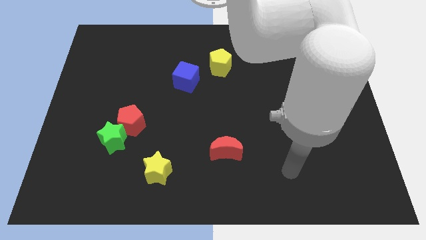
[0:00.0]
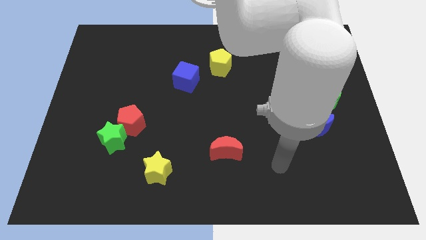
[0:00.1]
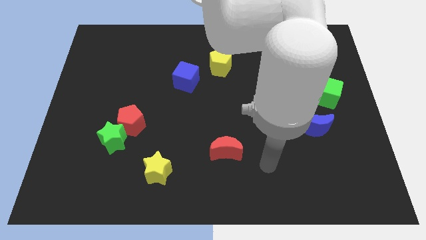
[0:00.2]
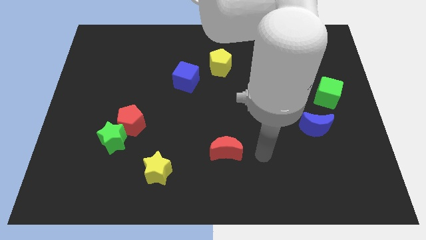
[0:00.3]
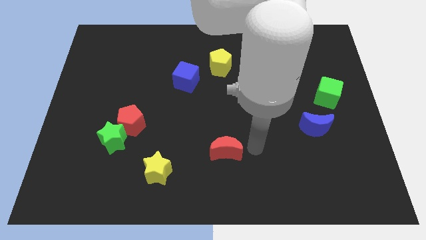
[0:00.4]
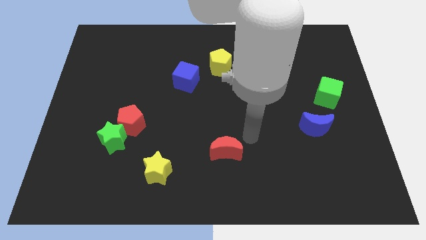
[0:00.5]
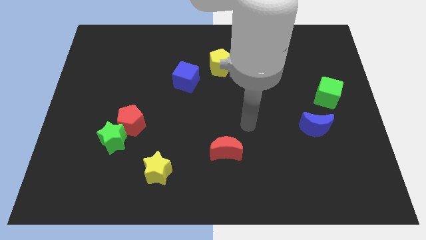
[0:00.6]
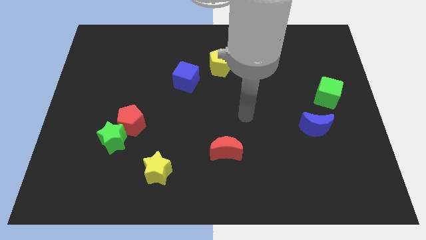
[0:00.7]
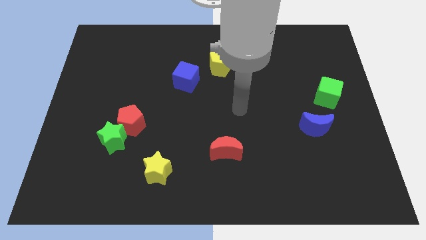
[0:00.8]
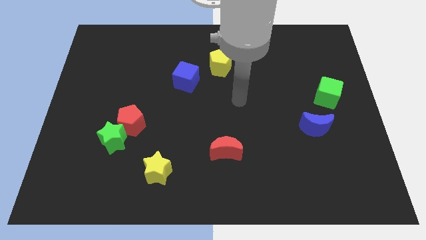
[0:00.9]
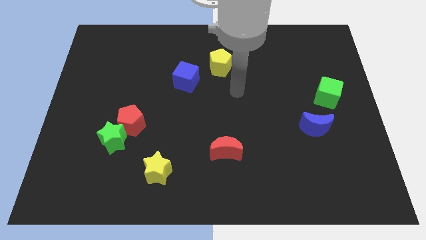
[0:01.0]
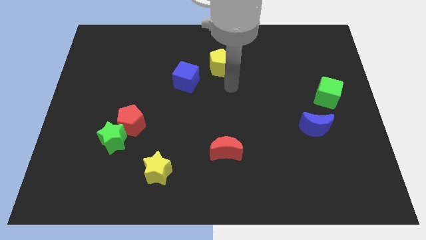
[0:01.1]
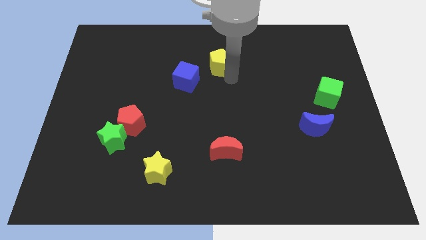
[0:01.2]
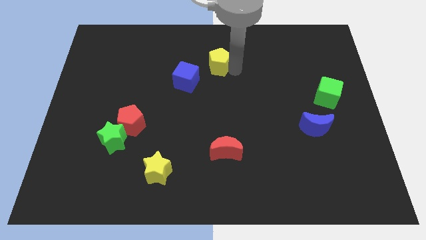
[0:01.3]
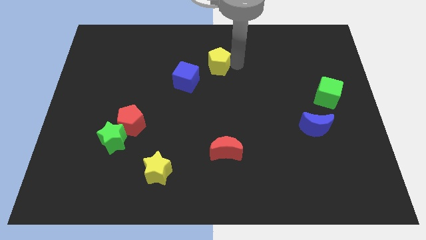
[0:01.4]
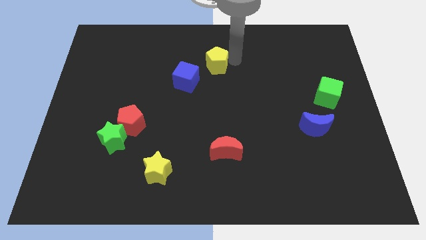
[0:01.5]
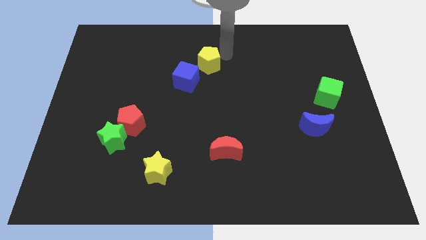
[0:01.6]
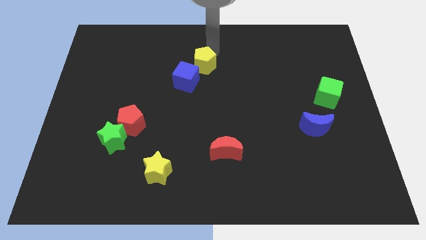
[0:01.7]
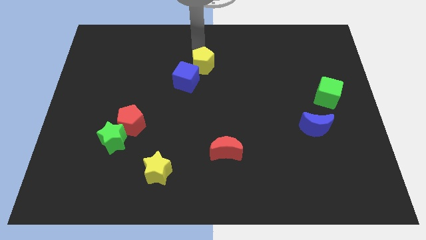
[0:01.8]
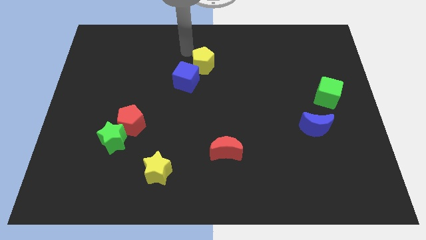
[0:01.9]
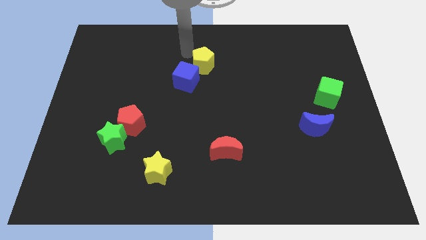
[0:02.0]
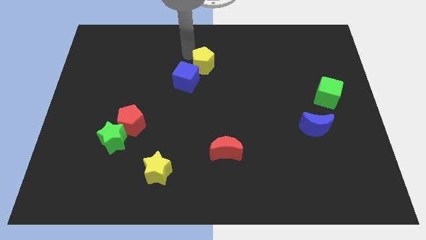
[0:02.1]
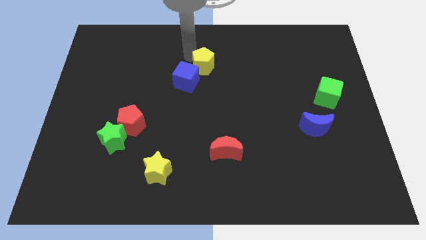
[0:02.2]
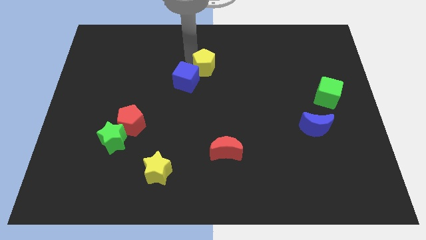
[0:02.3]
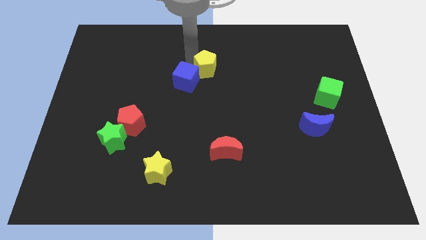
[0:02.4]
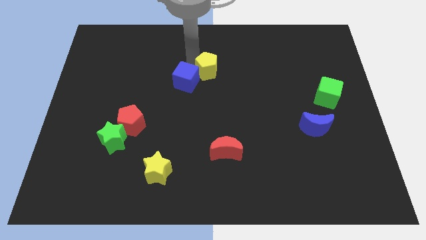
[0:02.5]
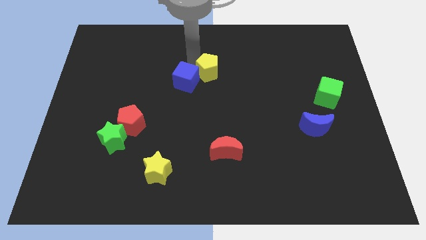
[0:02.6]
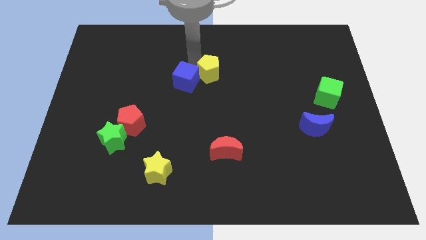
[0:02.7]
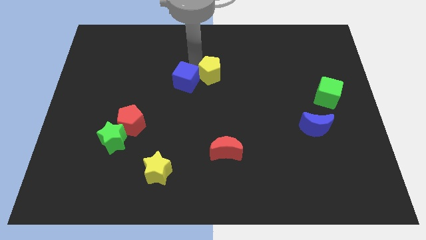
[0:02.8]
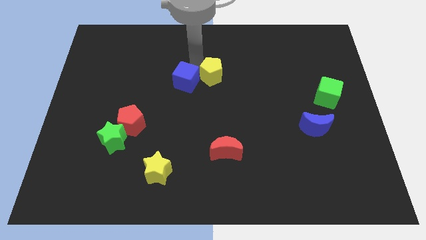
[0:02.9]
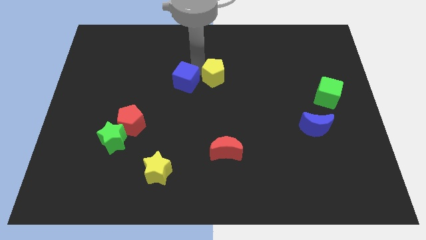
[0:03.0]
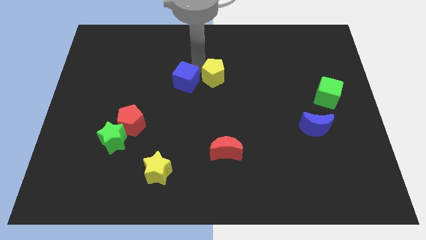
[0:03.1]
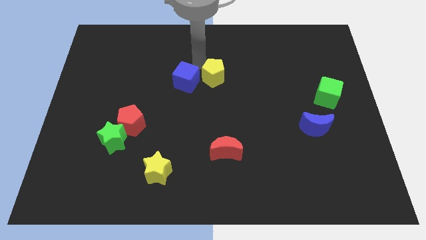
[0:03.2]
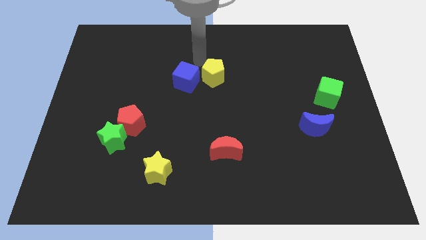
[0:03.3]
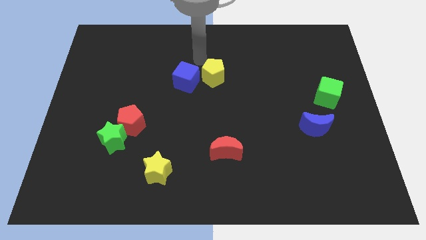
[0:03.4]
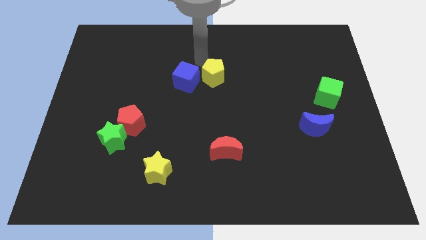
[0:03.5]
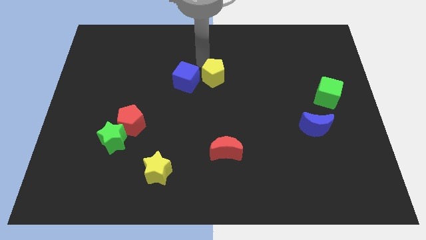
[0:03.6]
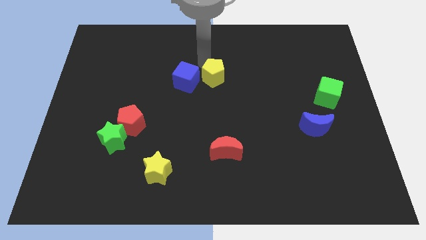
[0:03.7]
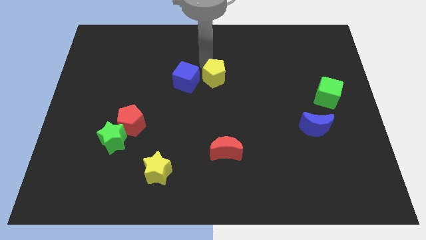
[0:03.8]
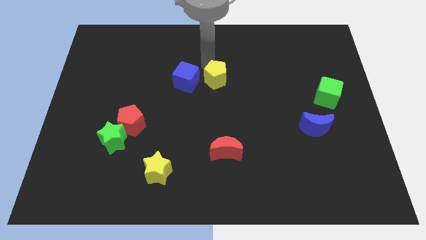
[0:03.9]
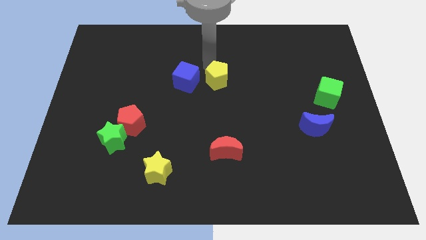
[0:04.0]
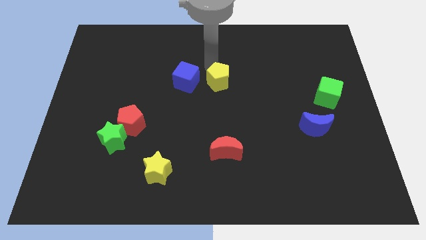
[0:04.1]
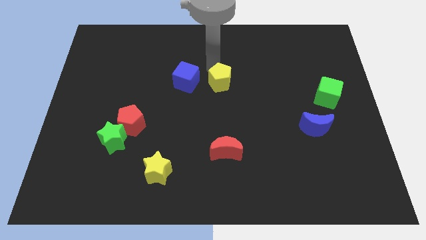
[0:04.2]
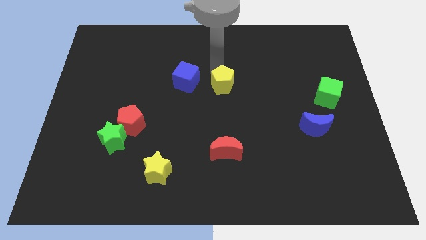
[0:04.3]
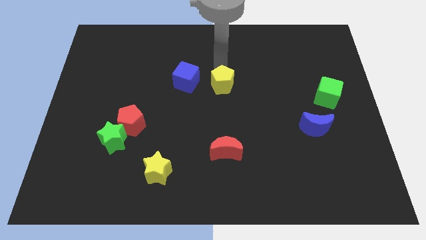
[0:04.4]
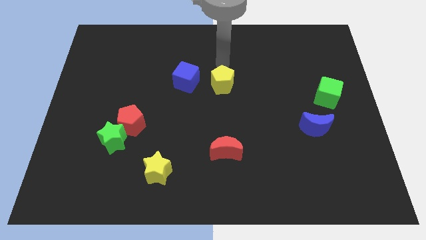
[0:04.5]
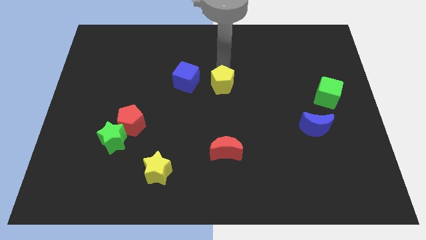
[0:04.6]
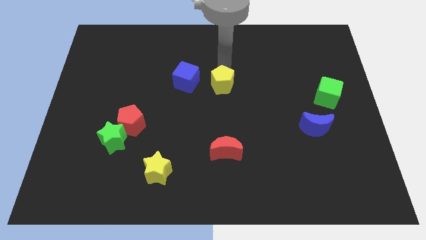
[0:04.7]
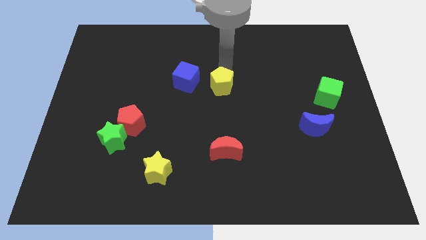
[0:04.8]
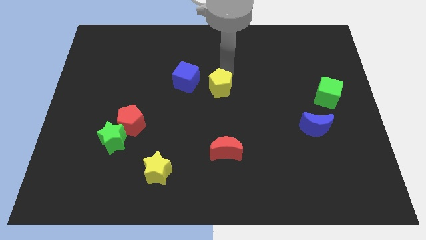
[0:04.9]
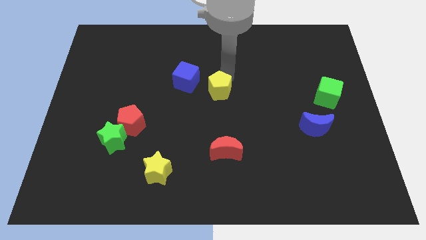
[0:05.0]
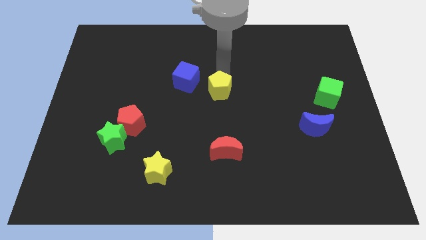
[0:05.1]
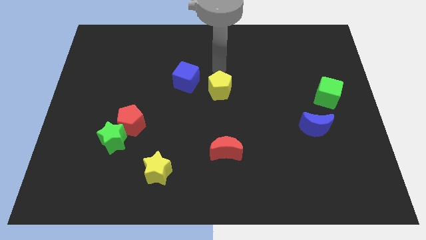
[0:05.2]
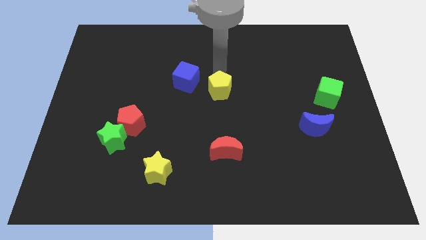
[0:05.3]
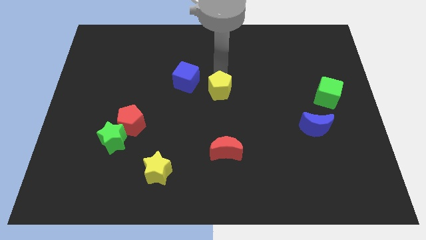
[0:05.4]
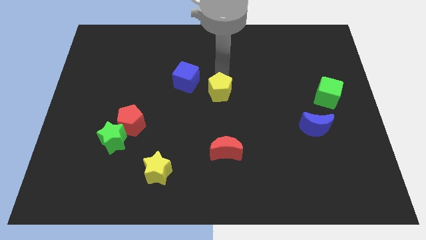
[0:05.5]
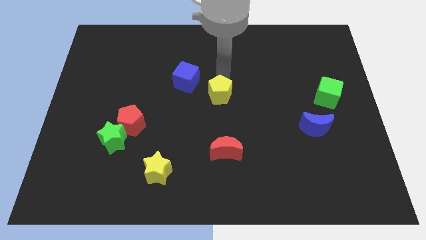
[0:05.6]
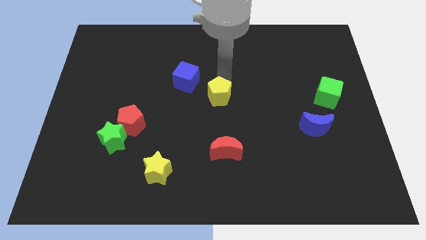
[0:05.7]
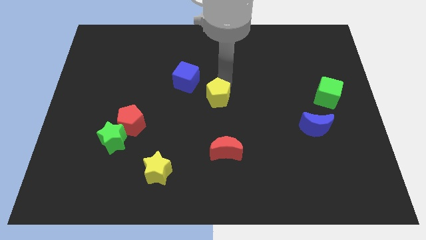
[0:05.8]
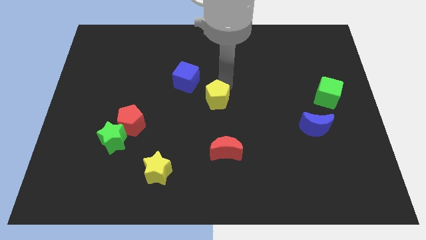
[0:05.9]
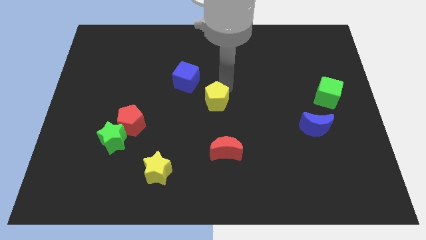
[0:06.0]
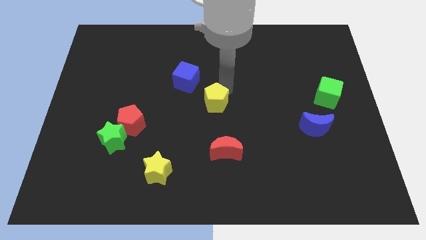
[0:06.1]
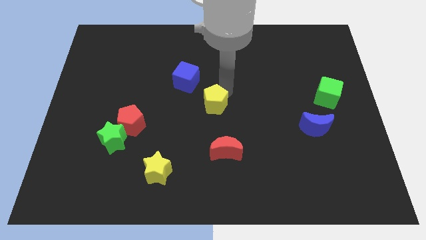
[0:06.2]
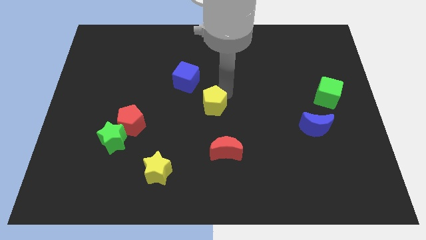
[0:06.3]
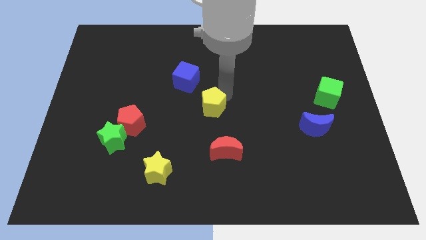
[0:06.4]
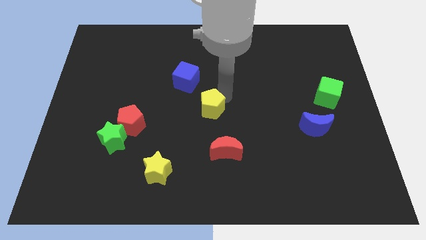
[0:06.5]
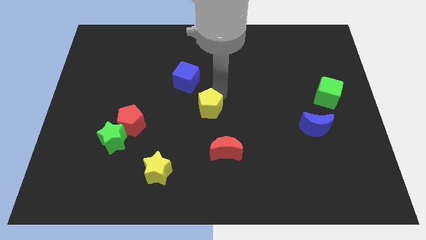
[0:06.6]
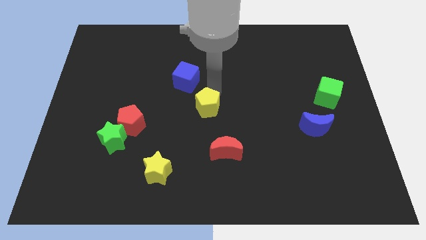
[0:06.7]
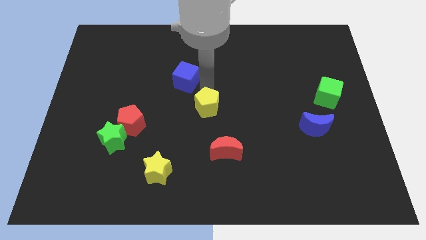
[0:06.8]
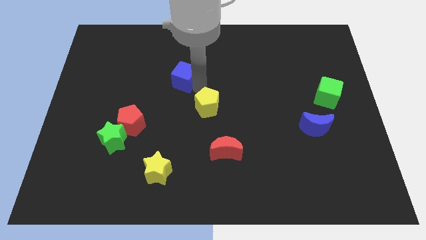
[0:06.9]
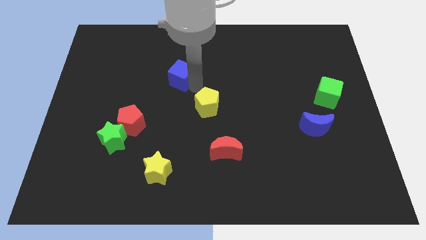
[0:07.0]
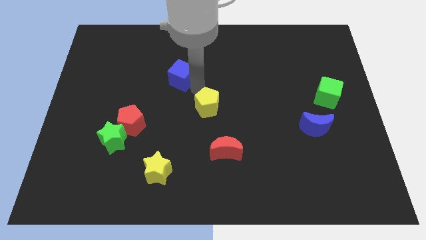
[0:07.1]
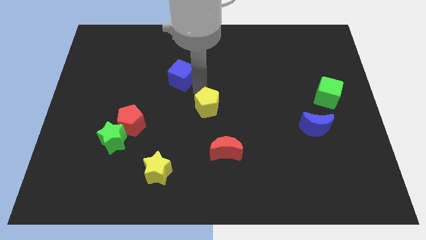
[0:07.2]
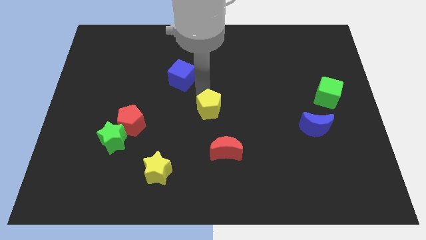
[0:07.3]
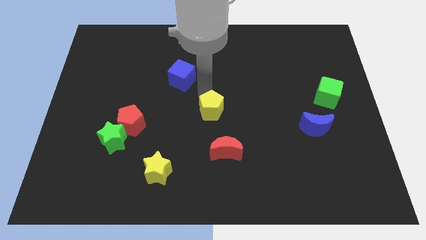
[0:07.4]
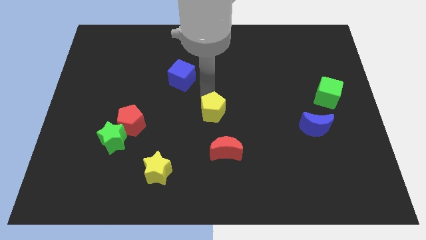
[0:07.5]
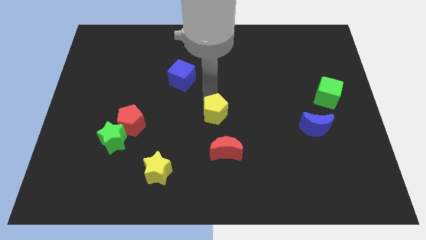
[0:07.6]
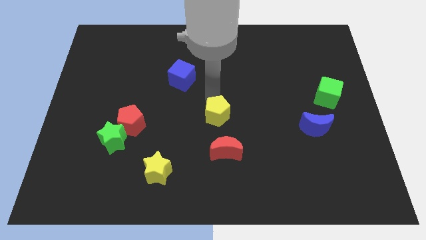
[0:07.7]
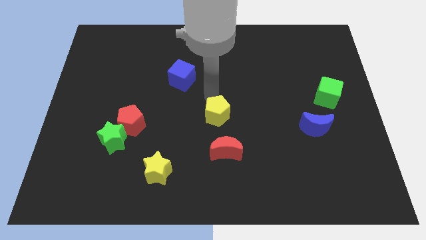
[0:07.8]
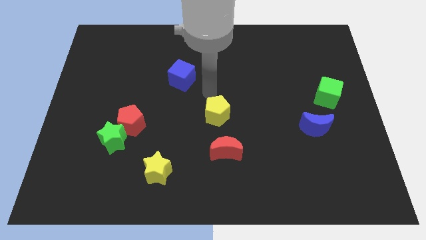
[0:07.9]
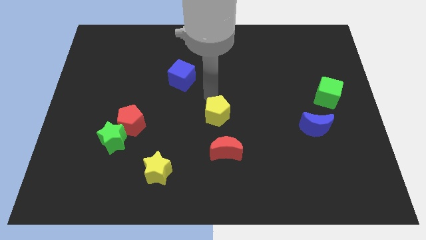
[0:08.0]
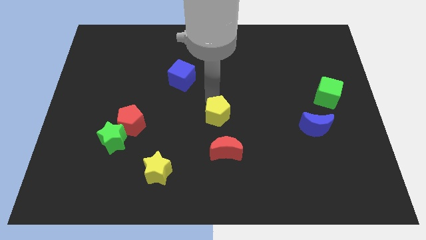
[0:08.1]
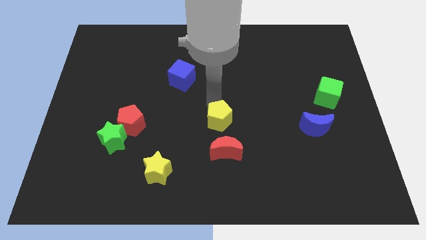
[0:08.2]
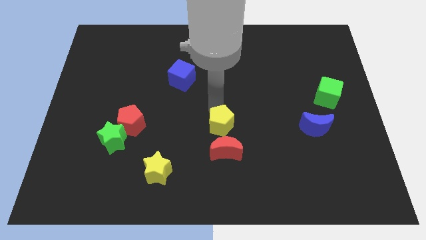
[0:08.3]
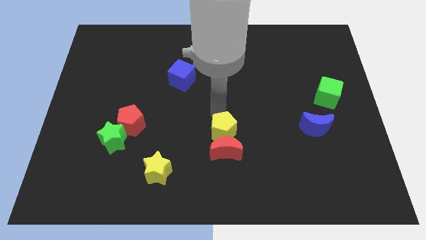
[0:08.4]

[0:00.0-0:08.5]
put the yellow pentagon towards the red moon
